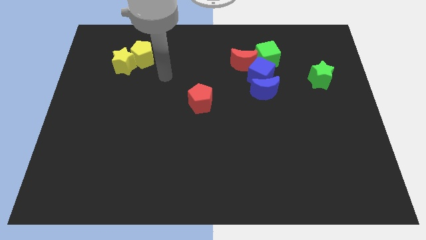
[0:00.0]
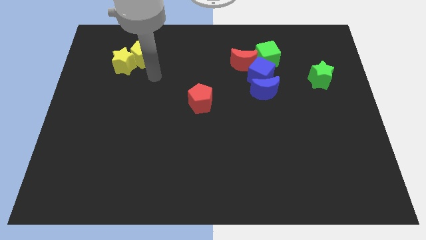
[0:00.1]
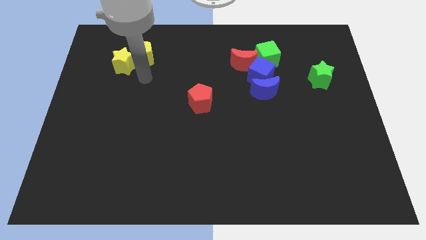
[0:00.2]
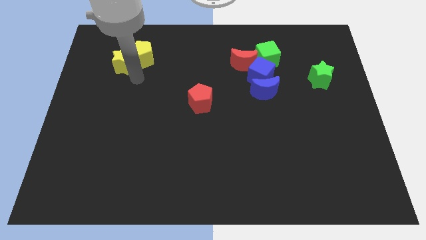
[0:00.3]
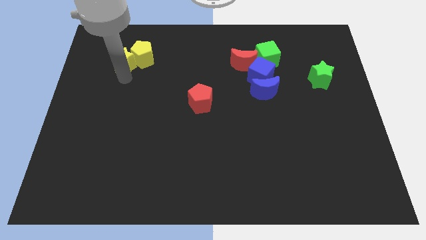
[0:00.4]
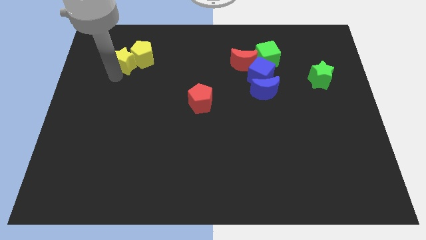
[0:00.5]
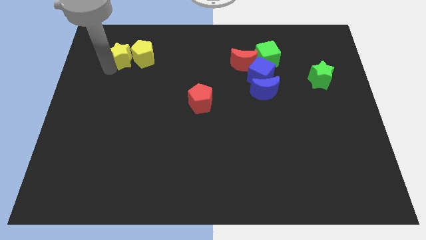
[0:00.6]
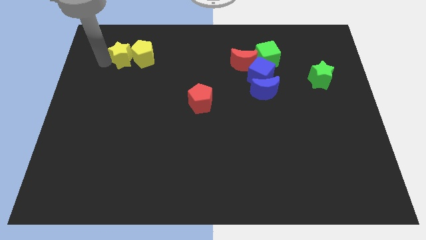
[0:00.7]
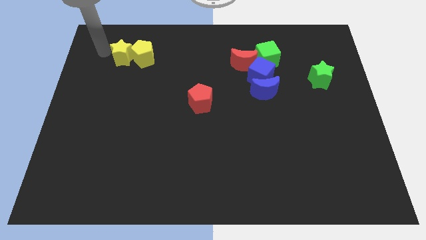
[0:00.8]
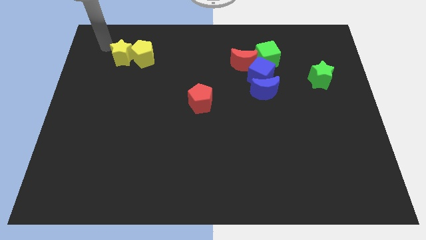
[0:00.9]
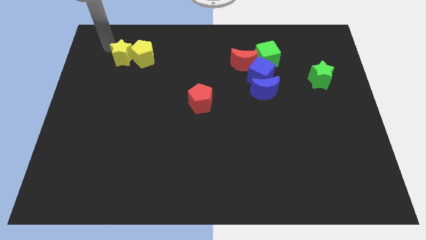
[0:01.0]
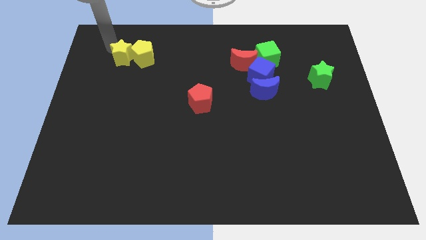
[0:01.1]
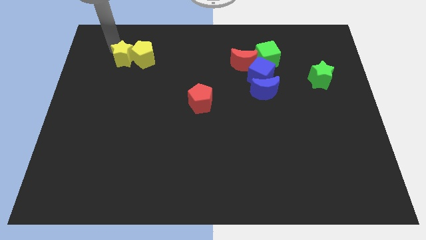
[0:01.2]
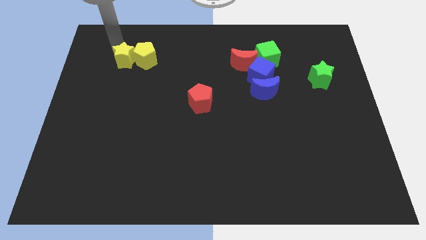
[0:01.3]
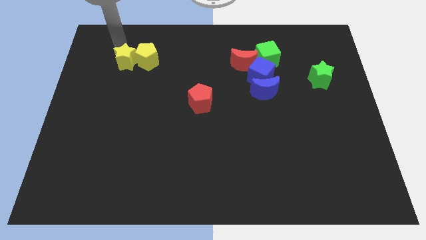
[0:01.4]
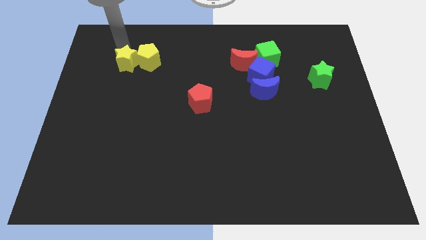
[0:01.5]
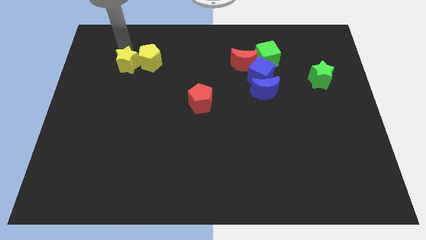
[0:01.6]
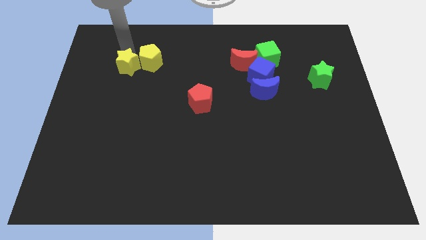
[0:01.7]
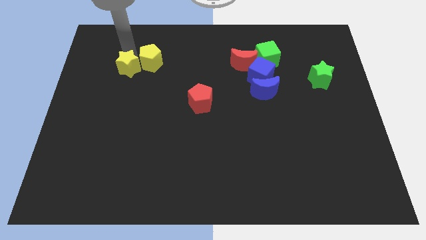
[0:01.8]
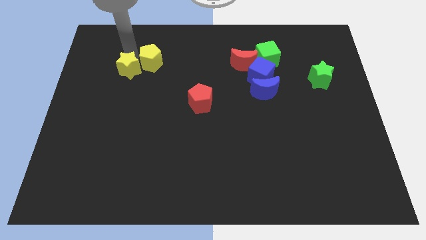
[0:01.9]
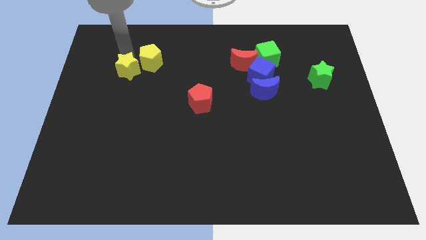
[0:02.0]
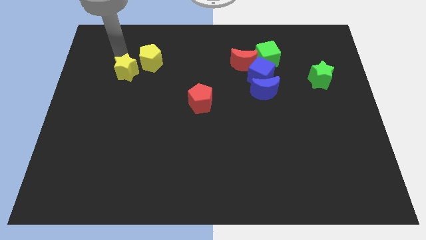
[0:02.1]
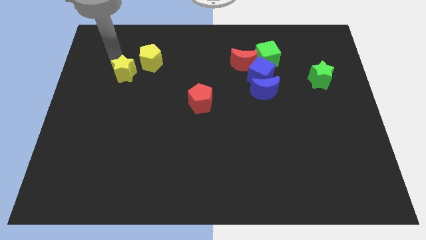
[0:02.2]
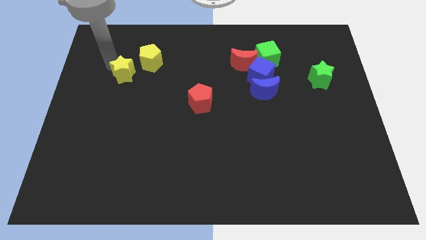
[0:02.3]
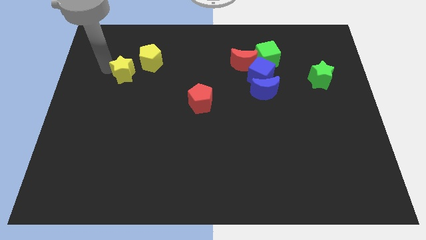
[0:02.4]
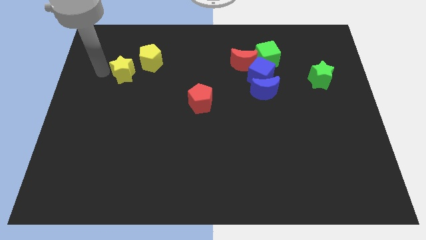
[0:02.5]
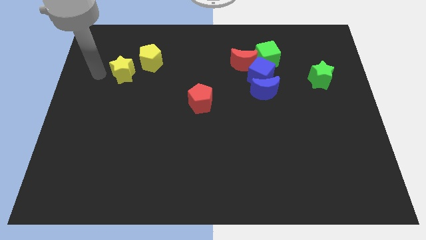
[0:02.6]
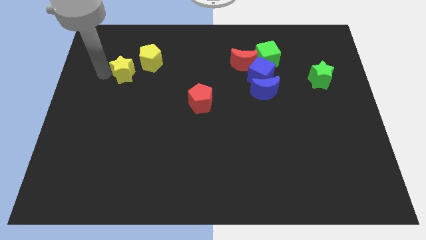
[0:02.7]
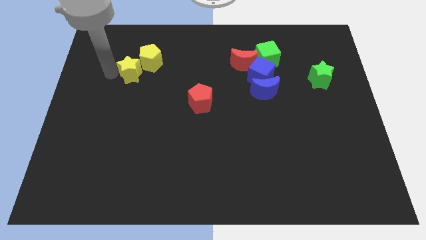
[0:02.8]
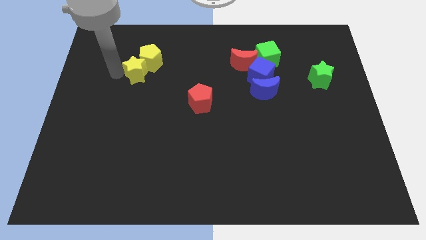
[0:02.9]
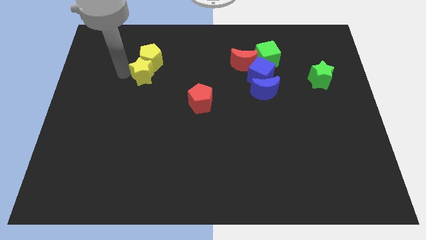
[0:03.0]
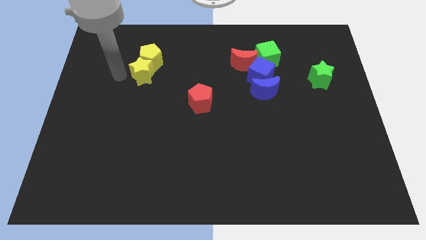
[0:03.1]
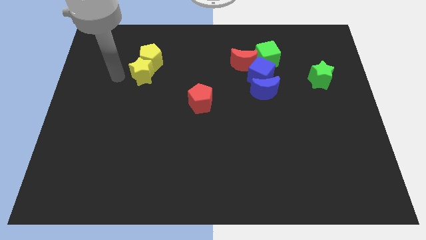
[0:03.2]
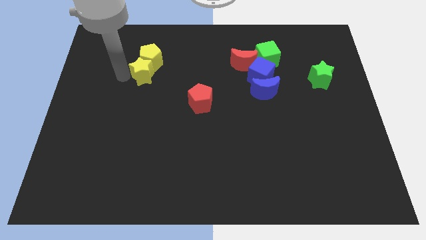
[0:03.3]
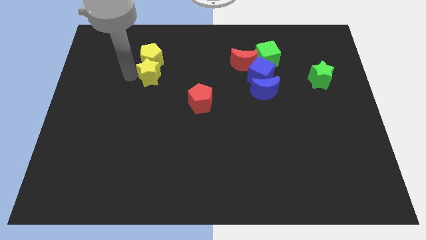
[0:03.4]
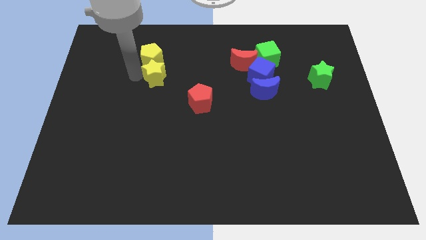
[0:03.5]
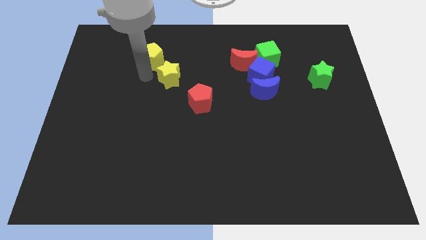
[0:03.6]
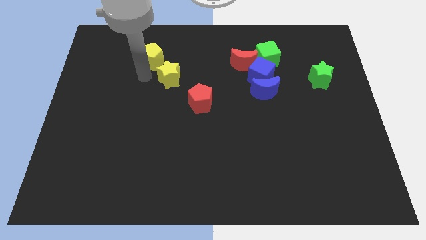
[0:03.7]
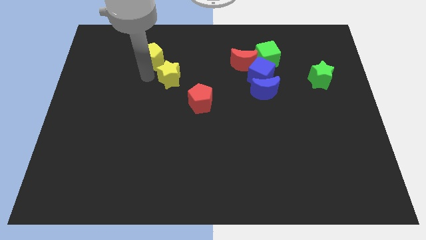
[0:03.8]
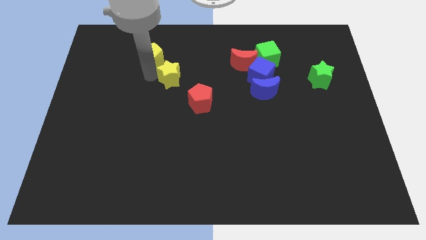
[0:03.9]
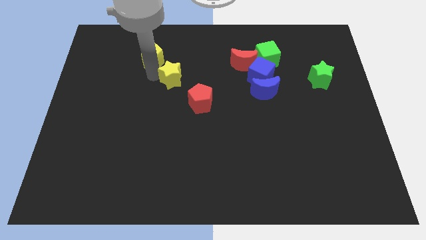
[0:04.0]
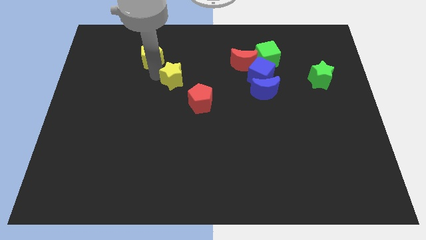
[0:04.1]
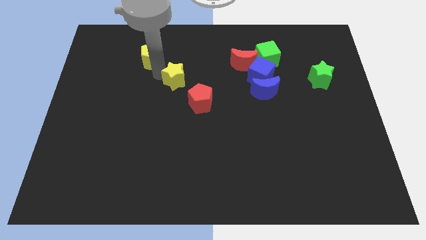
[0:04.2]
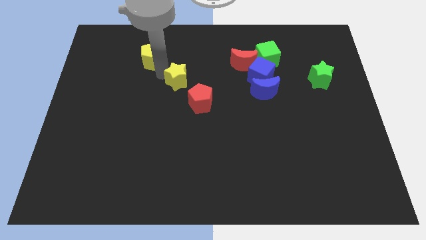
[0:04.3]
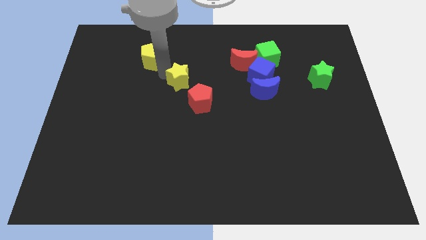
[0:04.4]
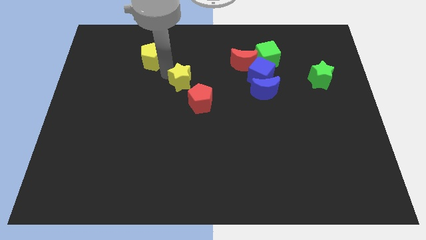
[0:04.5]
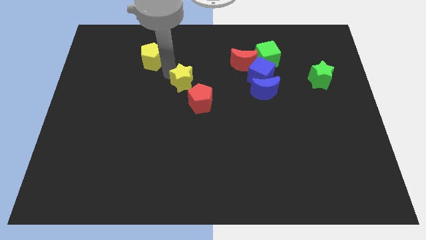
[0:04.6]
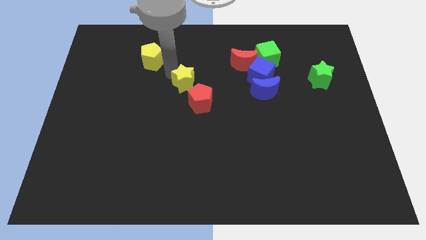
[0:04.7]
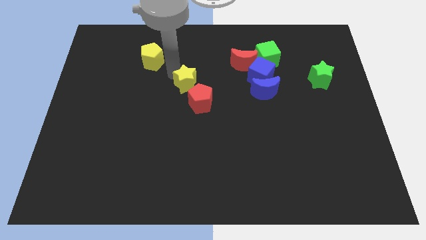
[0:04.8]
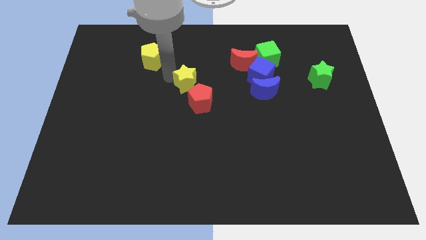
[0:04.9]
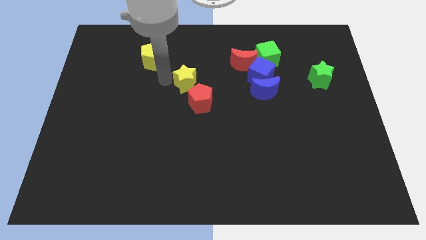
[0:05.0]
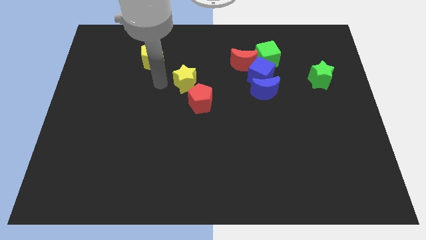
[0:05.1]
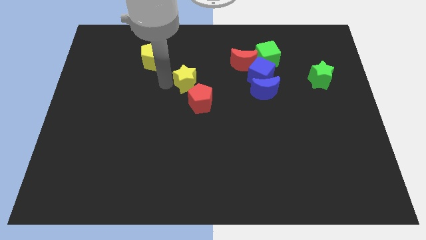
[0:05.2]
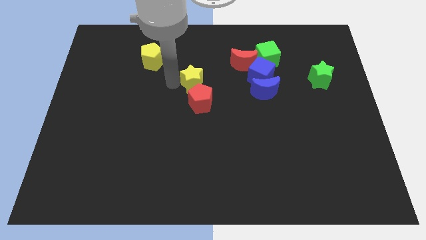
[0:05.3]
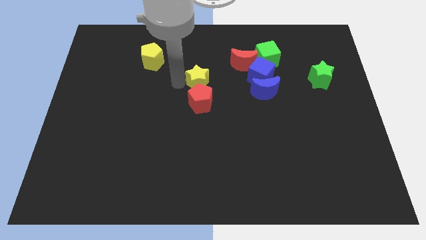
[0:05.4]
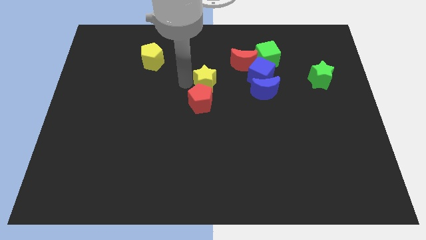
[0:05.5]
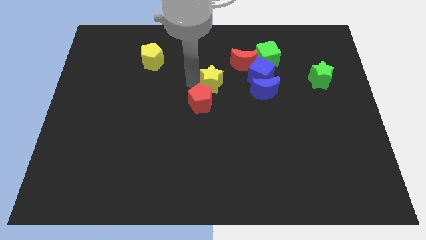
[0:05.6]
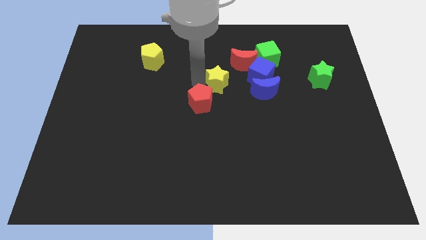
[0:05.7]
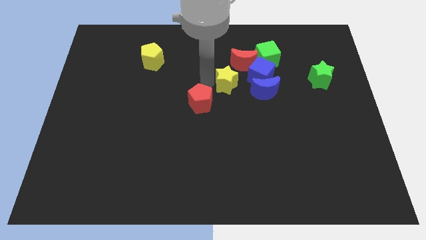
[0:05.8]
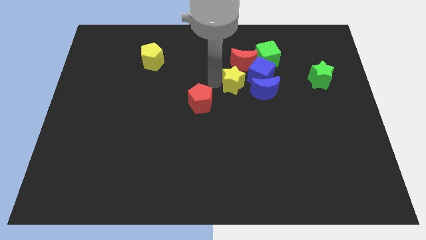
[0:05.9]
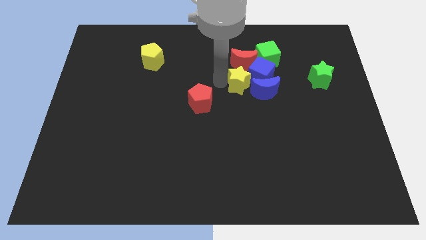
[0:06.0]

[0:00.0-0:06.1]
slide the yellow star close to the blue cube

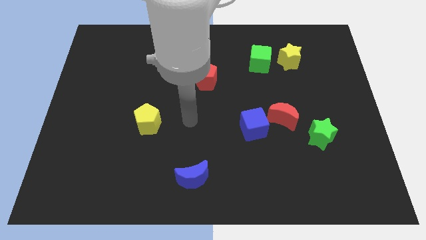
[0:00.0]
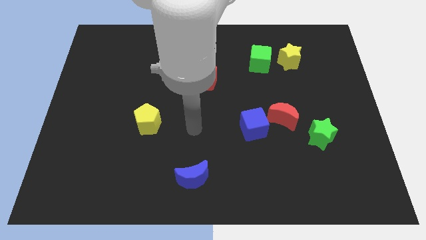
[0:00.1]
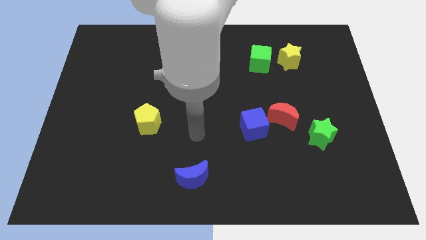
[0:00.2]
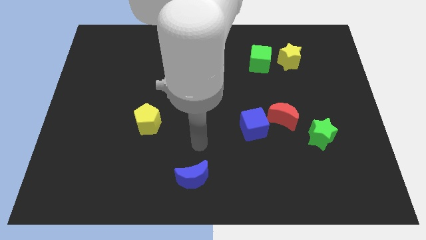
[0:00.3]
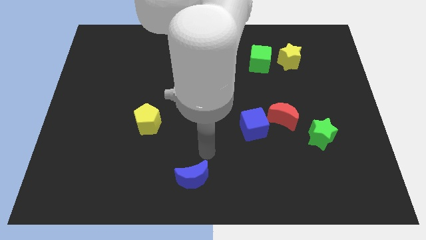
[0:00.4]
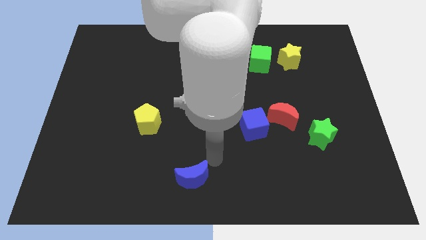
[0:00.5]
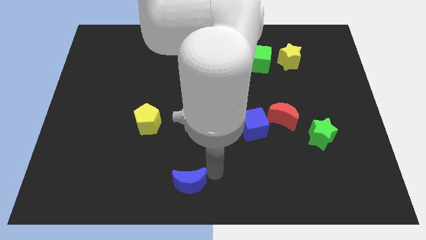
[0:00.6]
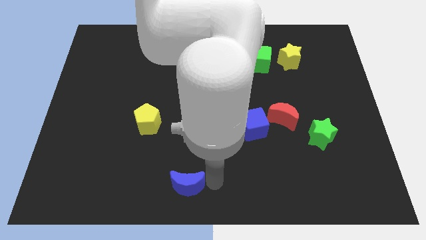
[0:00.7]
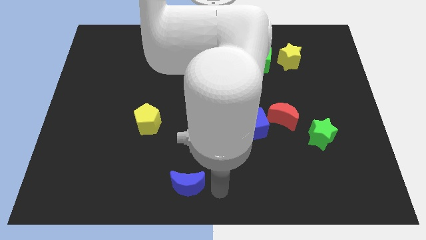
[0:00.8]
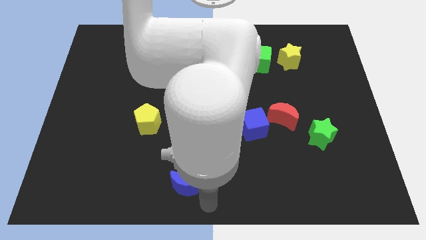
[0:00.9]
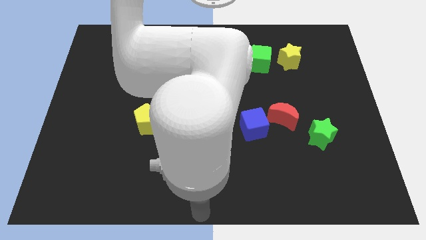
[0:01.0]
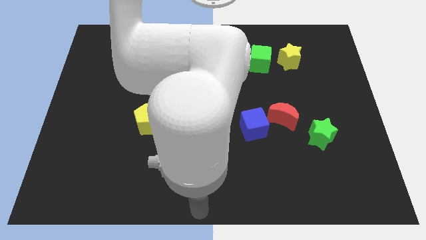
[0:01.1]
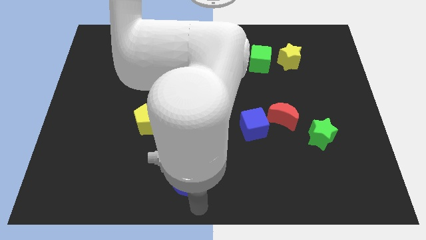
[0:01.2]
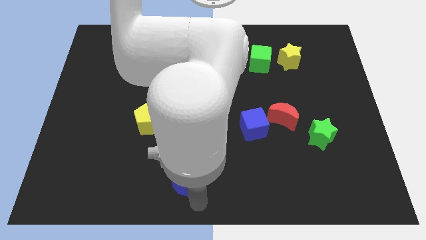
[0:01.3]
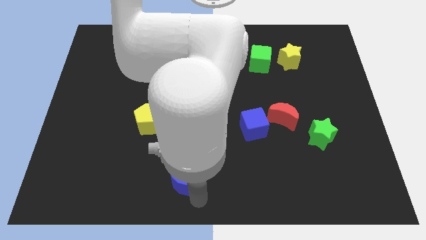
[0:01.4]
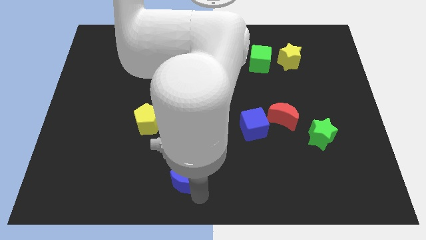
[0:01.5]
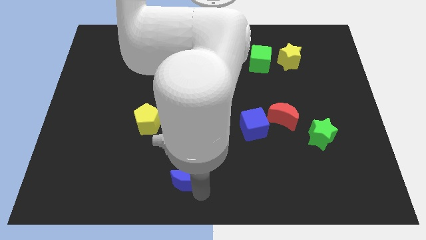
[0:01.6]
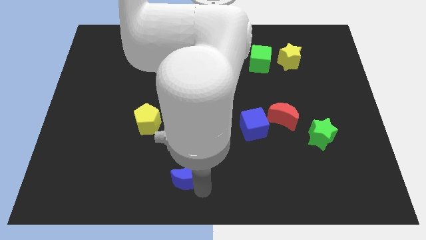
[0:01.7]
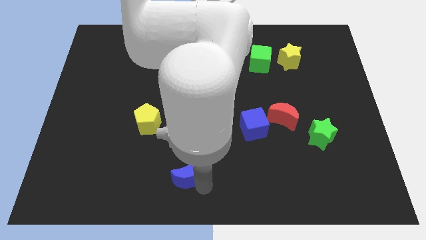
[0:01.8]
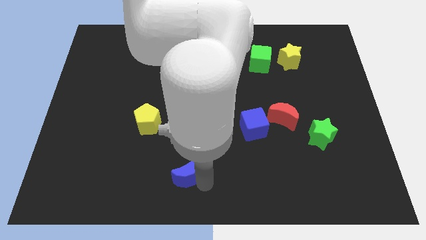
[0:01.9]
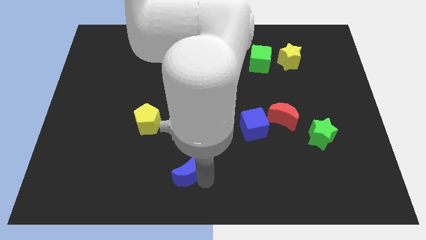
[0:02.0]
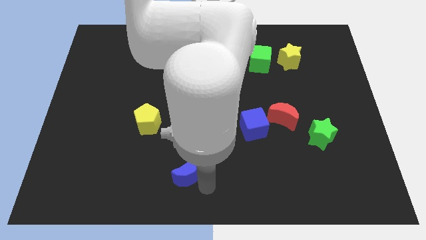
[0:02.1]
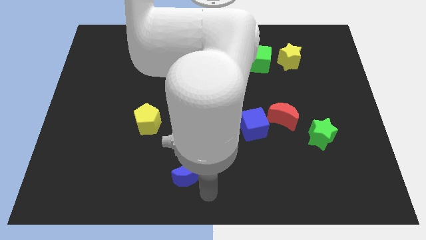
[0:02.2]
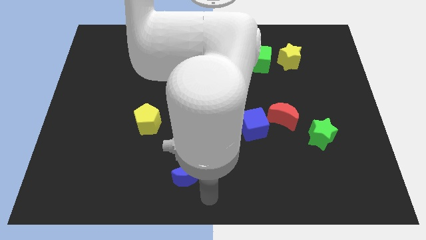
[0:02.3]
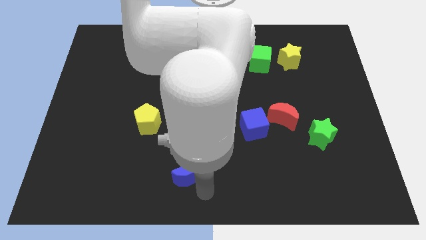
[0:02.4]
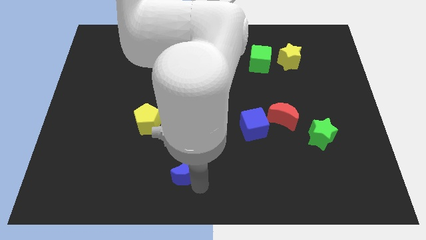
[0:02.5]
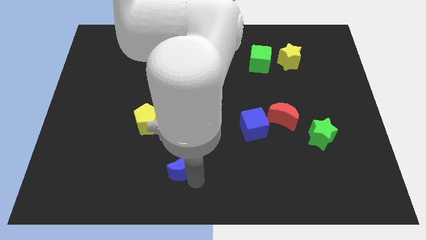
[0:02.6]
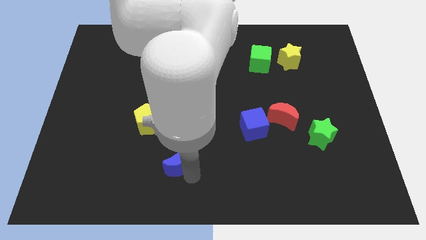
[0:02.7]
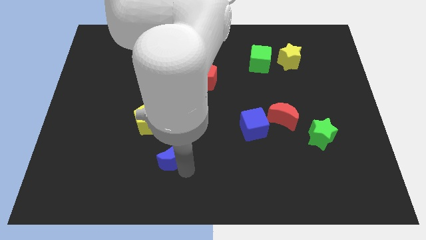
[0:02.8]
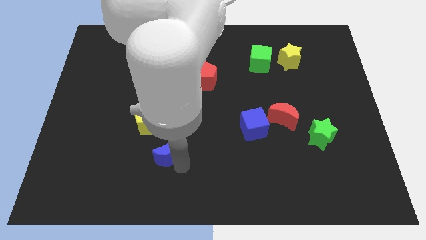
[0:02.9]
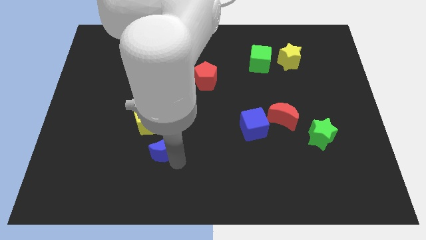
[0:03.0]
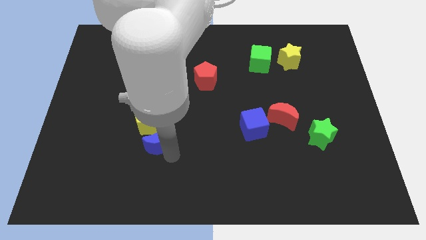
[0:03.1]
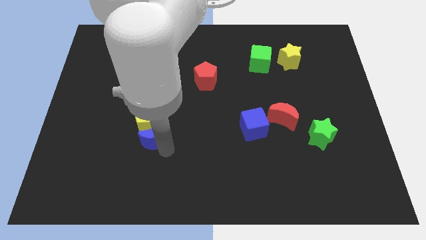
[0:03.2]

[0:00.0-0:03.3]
move the blue moon towards the yellow pentagon
